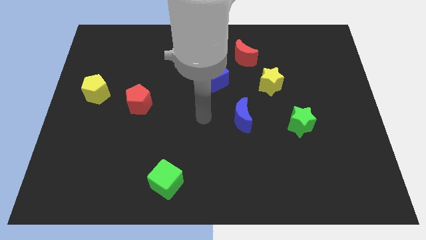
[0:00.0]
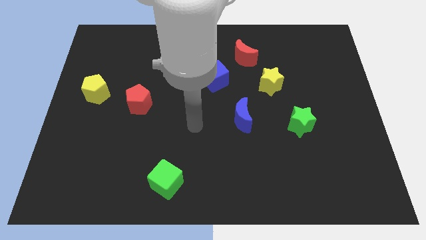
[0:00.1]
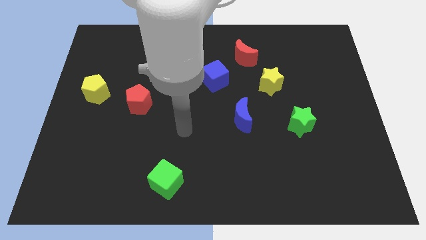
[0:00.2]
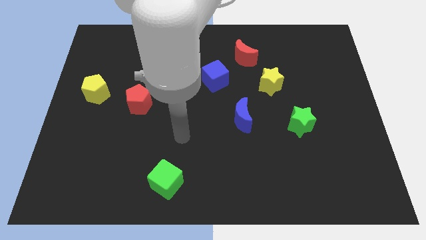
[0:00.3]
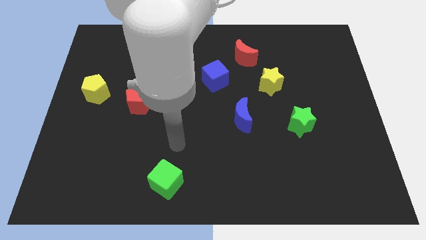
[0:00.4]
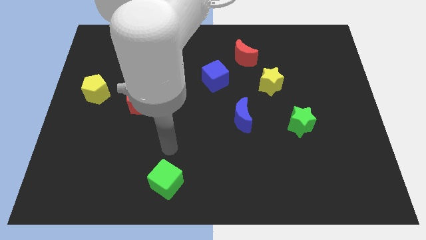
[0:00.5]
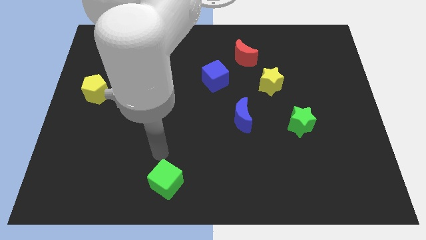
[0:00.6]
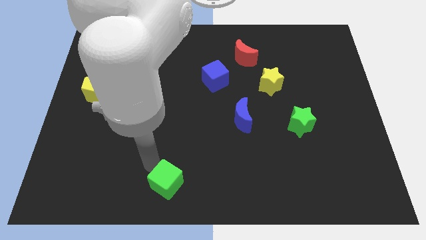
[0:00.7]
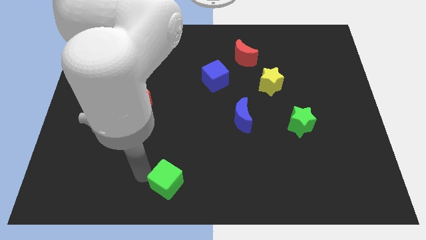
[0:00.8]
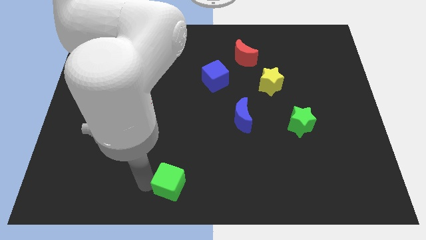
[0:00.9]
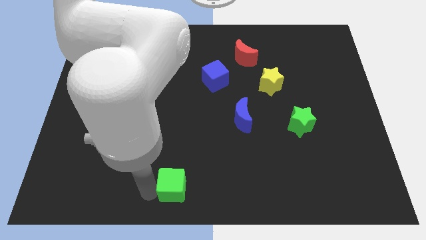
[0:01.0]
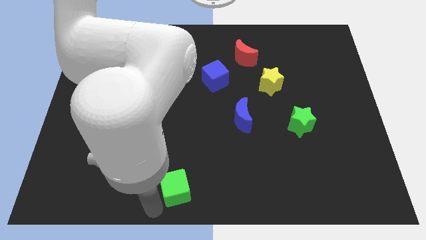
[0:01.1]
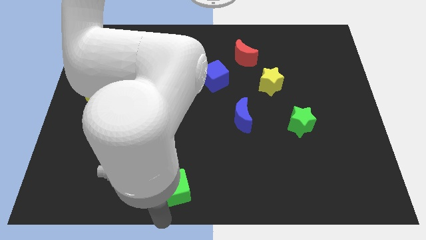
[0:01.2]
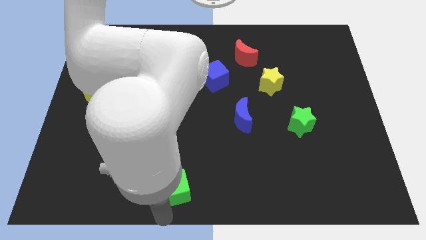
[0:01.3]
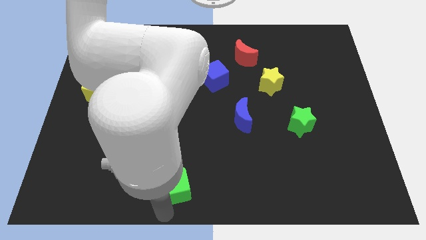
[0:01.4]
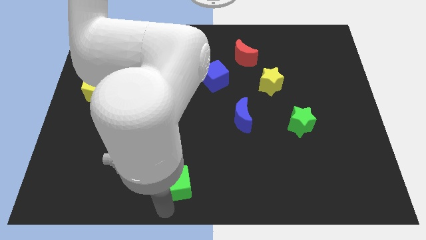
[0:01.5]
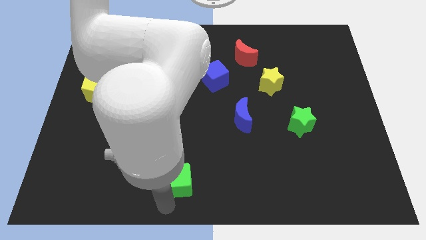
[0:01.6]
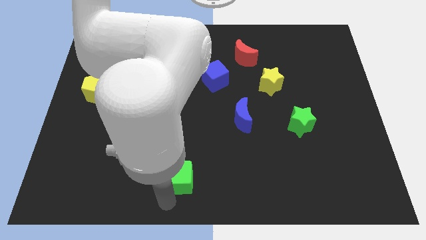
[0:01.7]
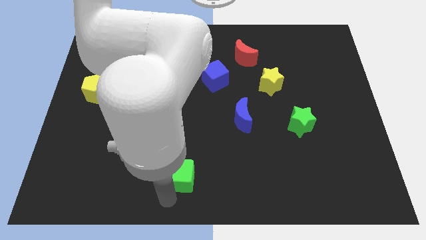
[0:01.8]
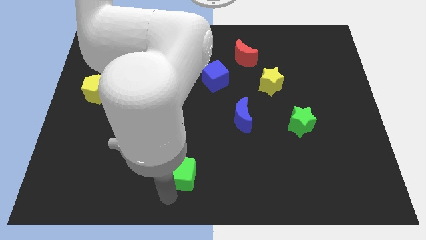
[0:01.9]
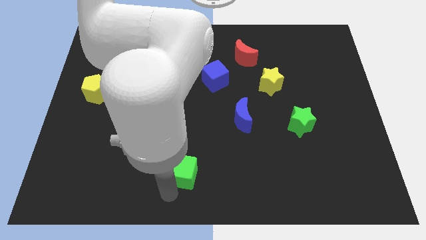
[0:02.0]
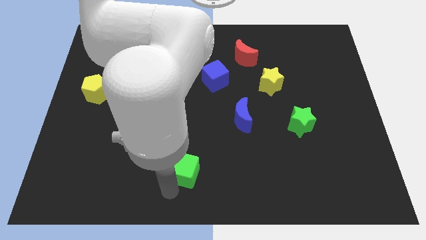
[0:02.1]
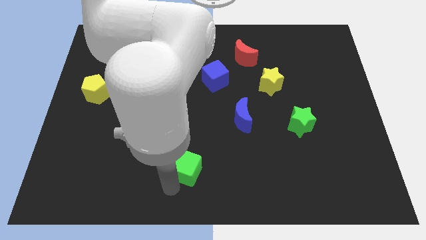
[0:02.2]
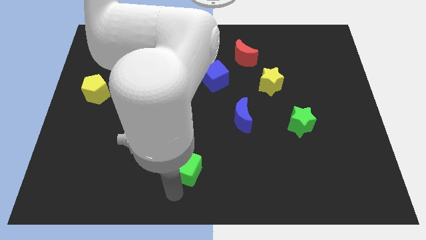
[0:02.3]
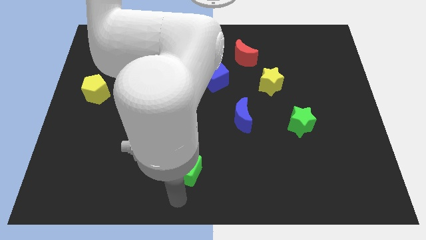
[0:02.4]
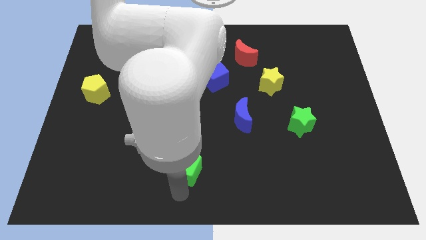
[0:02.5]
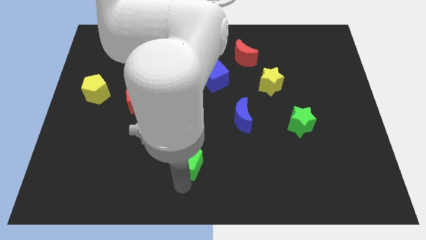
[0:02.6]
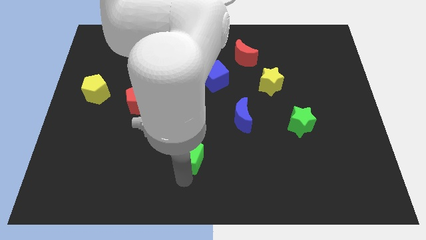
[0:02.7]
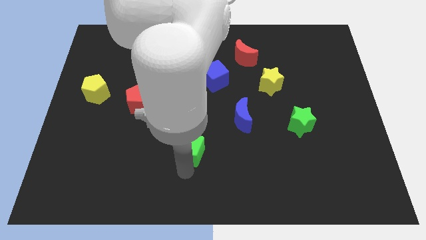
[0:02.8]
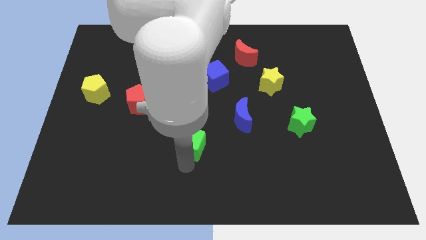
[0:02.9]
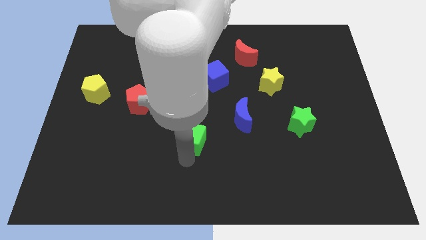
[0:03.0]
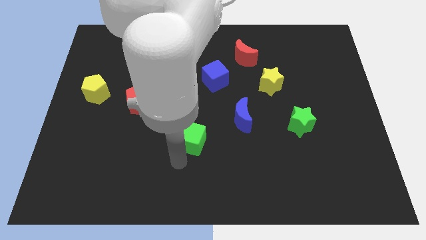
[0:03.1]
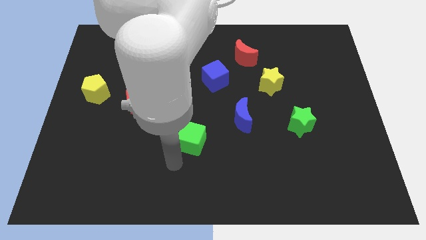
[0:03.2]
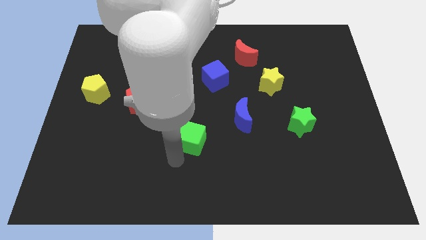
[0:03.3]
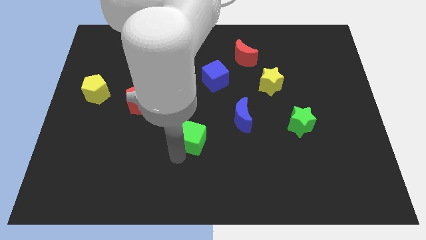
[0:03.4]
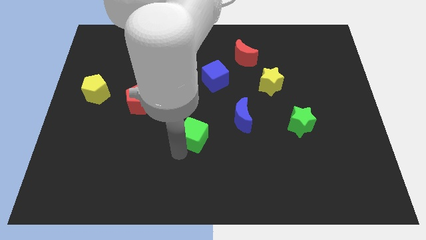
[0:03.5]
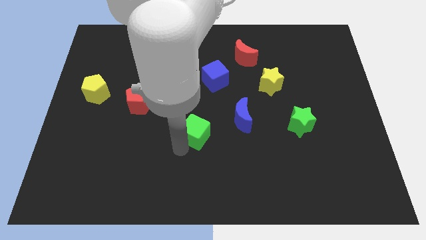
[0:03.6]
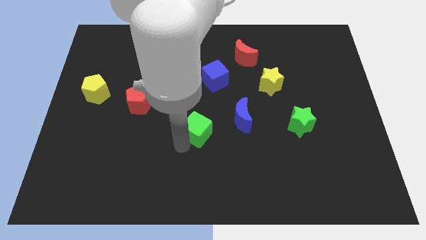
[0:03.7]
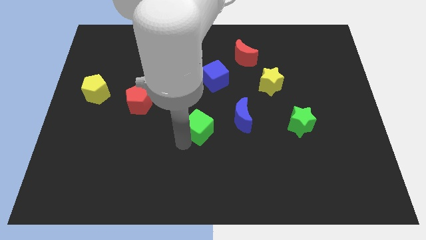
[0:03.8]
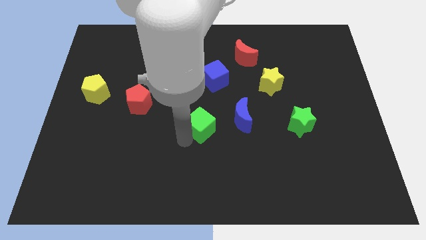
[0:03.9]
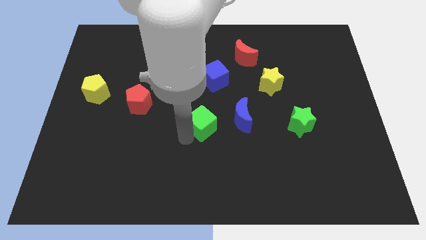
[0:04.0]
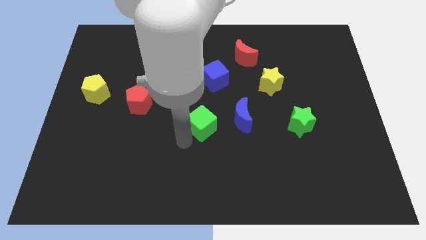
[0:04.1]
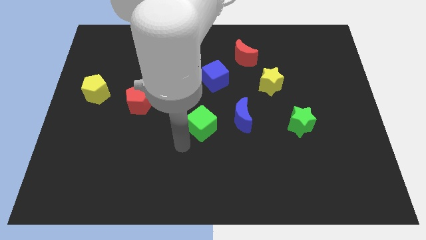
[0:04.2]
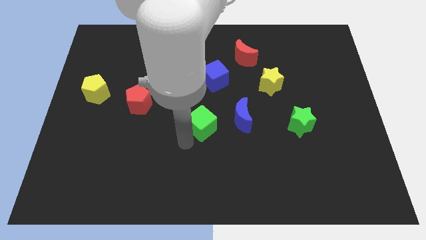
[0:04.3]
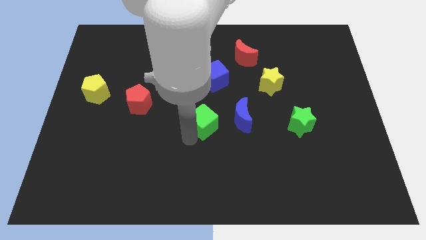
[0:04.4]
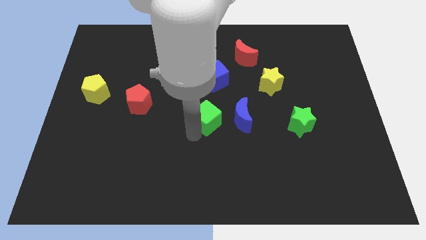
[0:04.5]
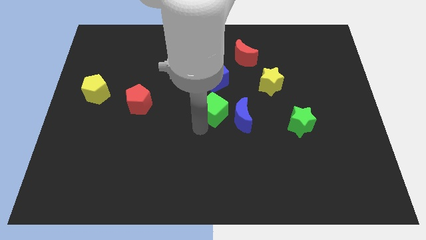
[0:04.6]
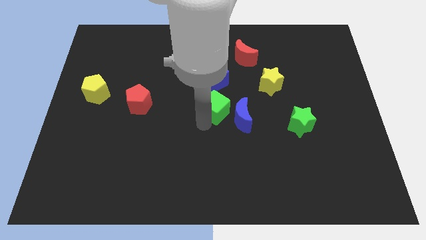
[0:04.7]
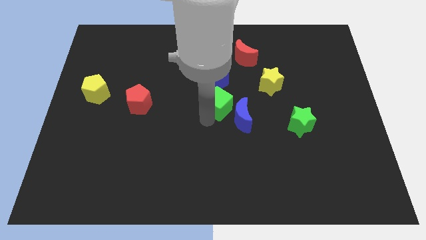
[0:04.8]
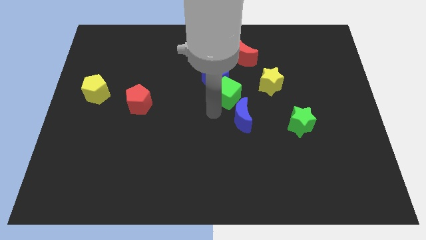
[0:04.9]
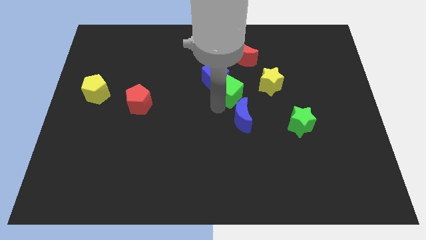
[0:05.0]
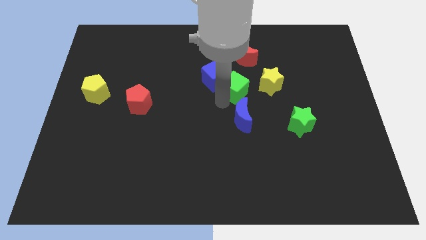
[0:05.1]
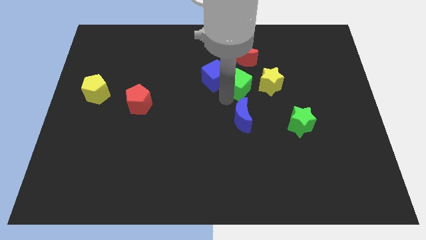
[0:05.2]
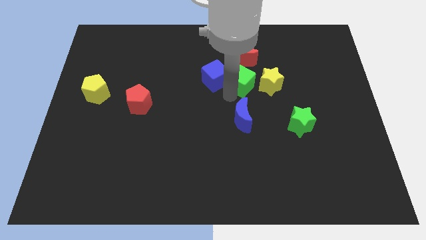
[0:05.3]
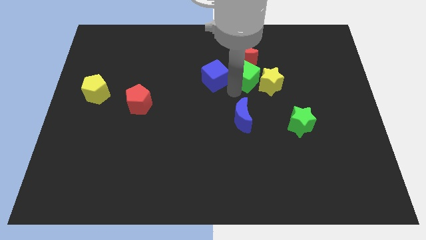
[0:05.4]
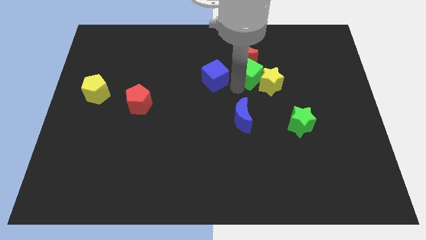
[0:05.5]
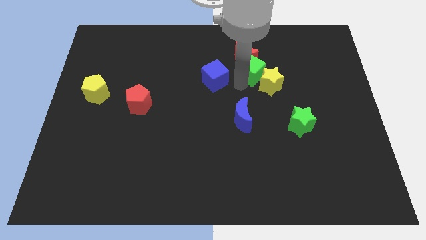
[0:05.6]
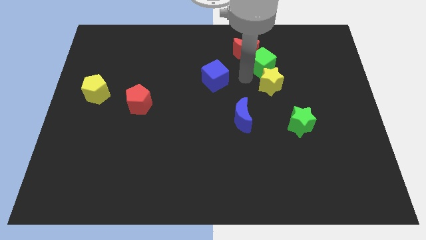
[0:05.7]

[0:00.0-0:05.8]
slide the green cube right of the red moon

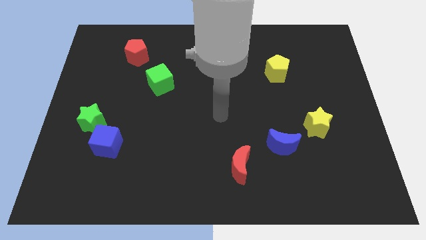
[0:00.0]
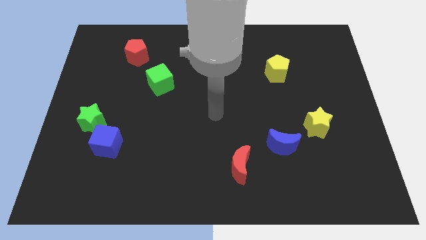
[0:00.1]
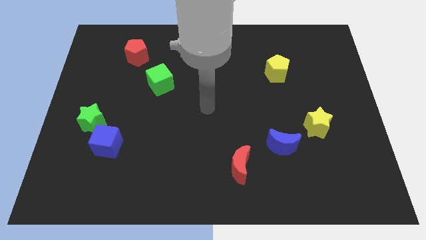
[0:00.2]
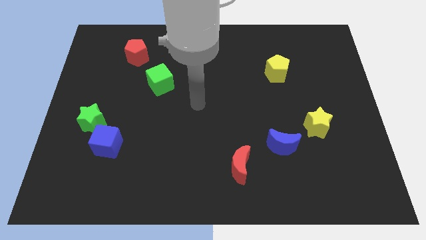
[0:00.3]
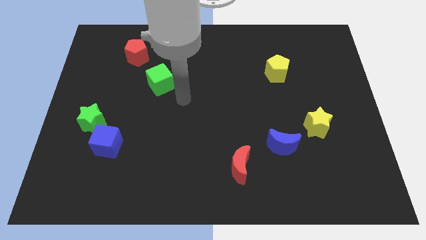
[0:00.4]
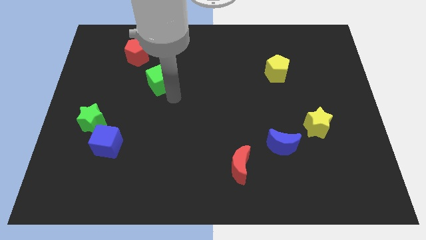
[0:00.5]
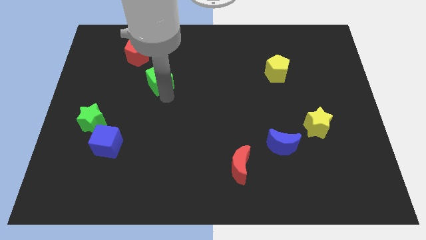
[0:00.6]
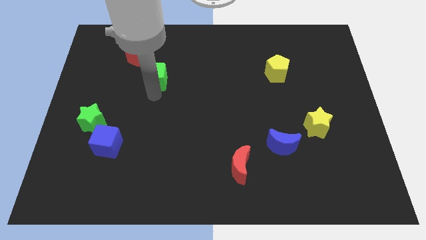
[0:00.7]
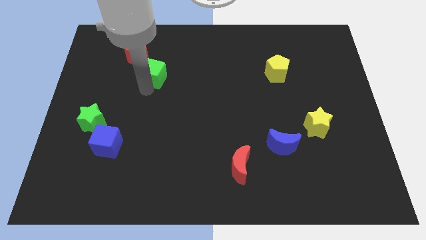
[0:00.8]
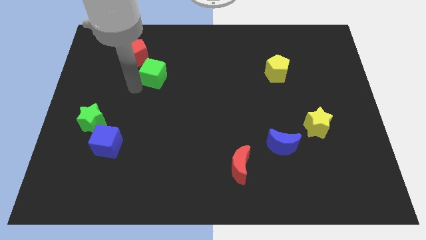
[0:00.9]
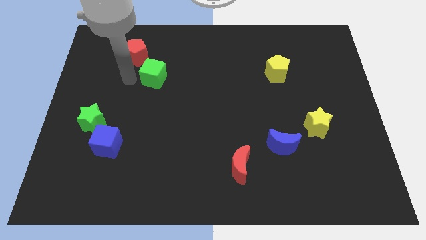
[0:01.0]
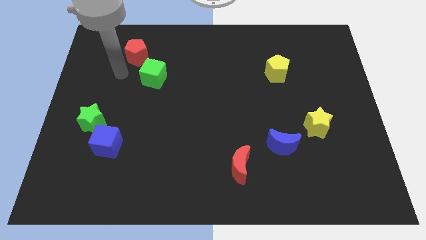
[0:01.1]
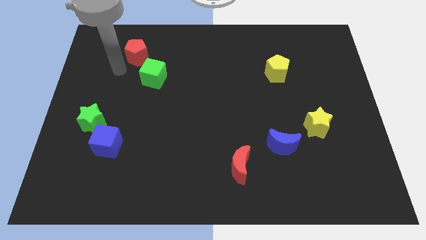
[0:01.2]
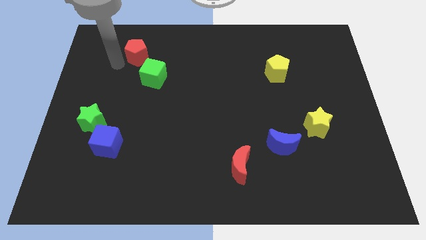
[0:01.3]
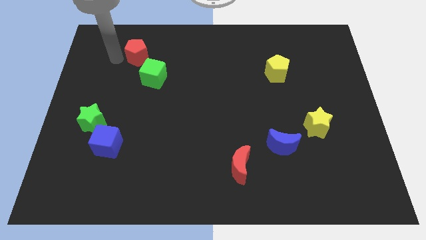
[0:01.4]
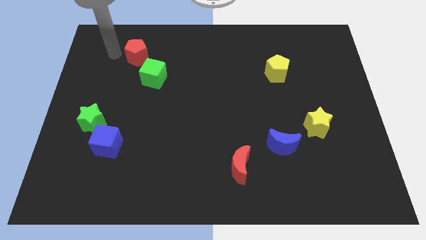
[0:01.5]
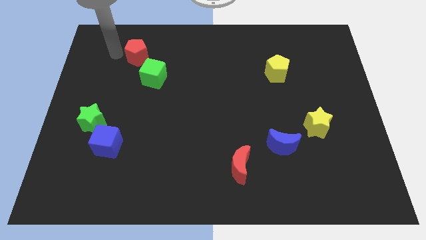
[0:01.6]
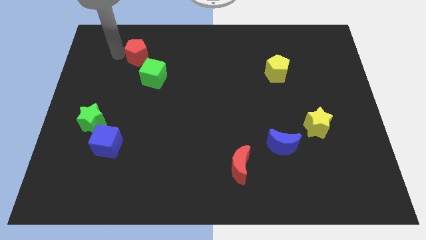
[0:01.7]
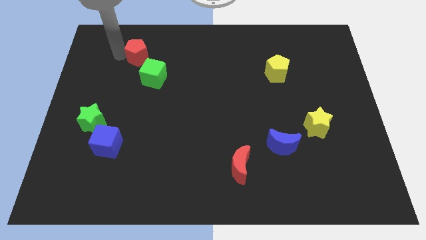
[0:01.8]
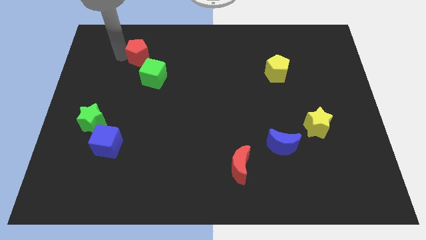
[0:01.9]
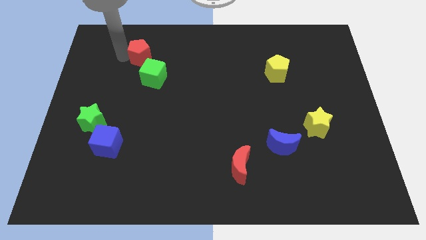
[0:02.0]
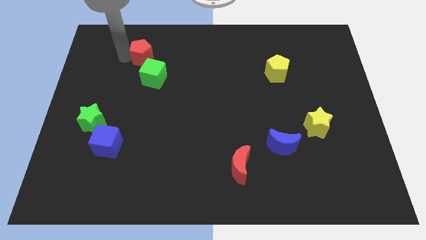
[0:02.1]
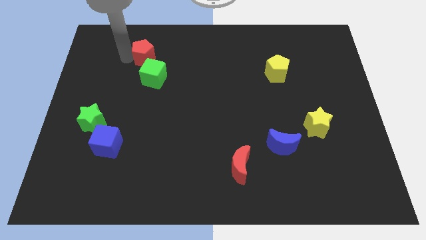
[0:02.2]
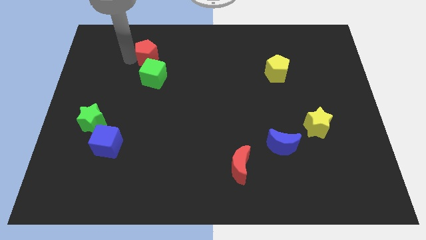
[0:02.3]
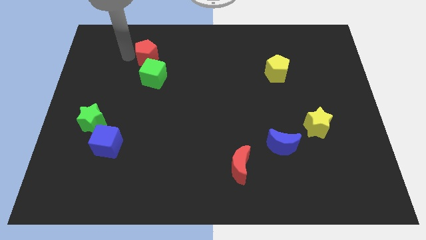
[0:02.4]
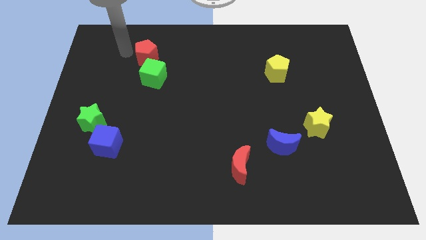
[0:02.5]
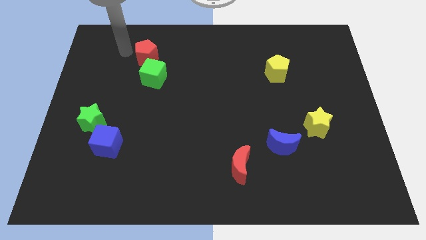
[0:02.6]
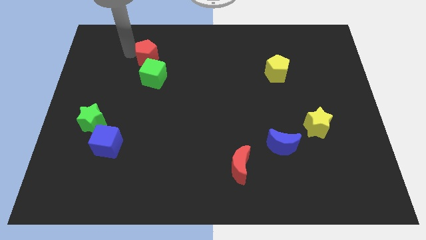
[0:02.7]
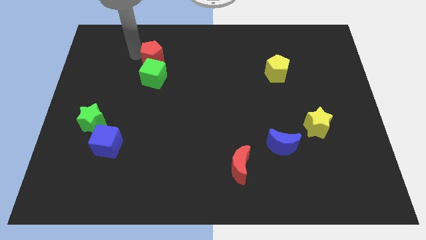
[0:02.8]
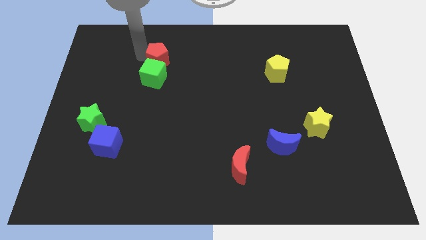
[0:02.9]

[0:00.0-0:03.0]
put the red pentagon to the top right of the green cube
